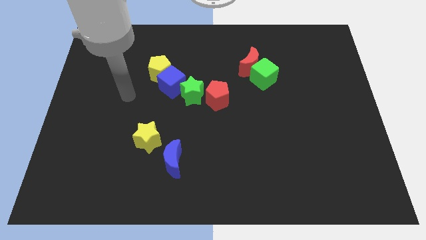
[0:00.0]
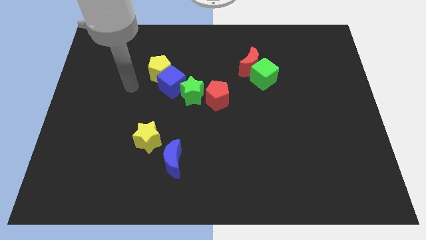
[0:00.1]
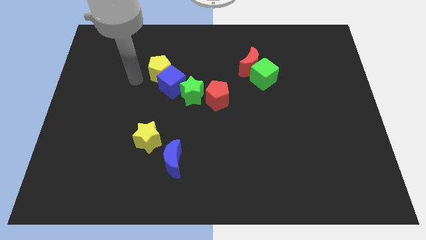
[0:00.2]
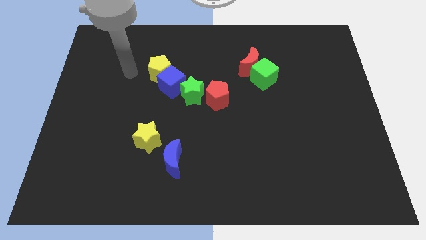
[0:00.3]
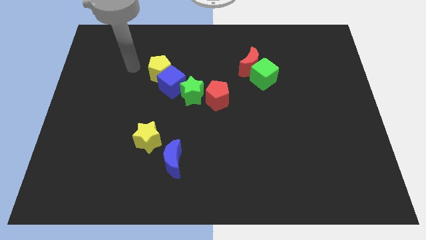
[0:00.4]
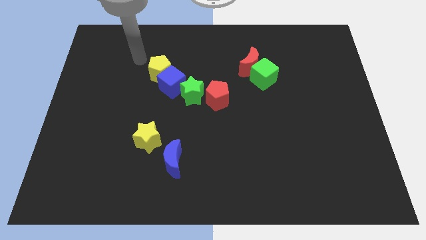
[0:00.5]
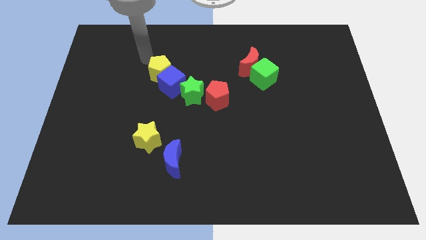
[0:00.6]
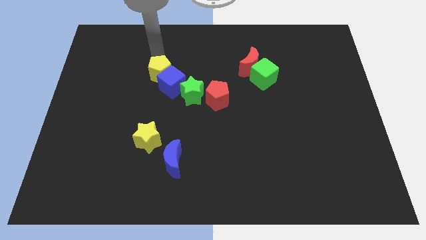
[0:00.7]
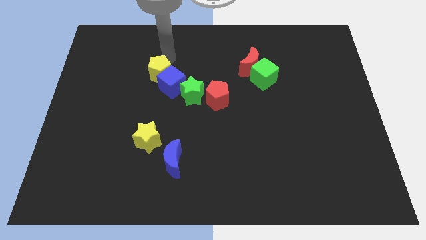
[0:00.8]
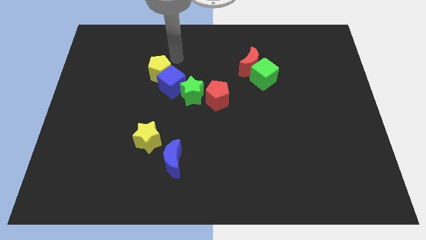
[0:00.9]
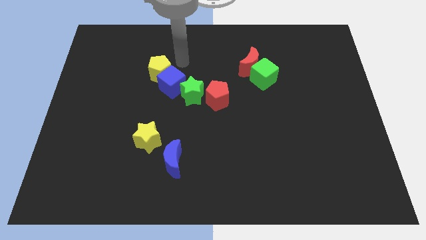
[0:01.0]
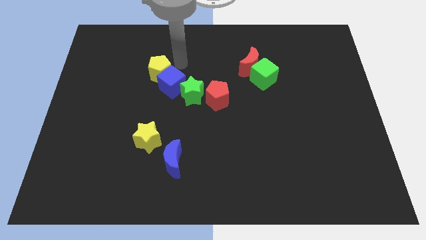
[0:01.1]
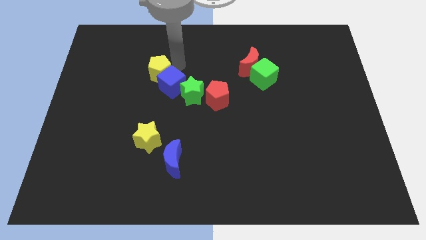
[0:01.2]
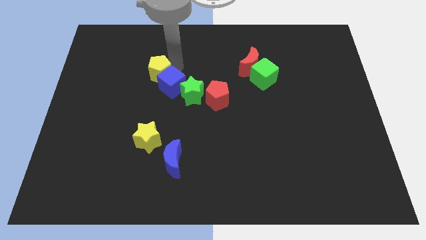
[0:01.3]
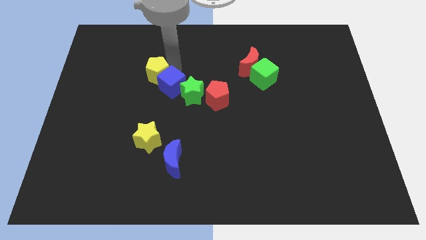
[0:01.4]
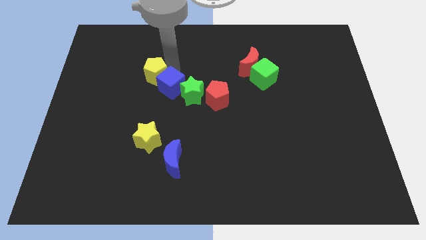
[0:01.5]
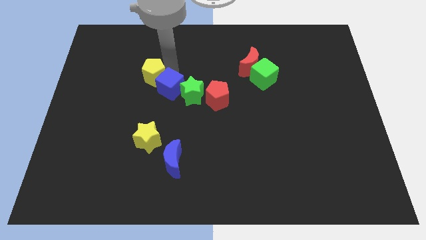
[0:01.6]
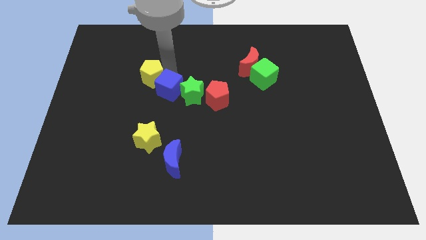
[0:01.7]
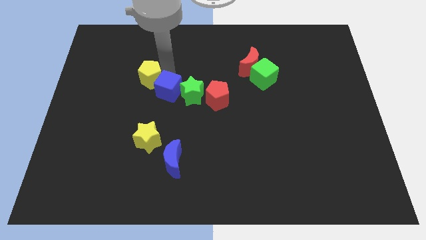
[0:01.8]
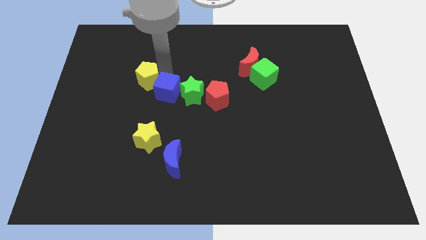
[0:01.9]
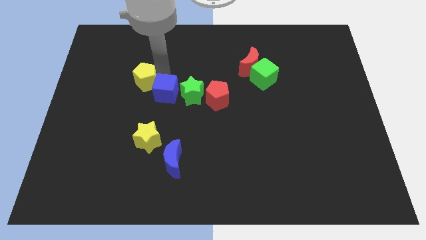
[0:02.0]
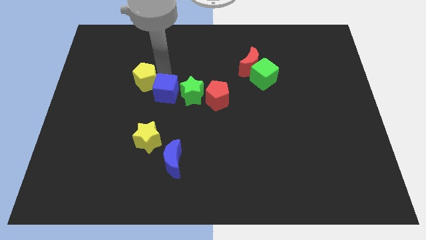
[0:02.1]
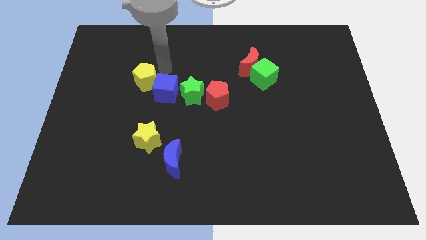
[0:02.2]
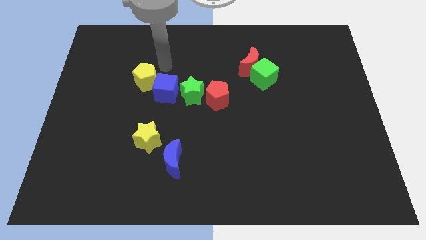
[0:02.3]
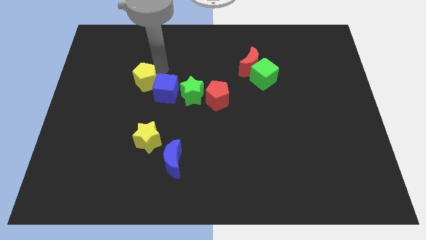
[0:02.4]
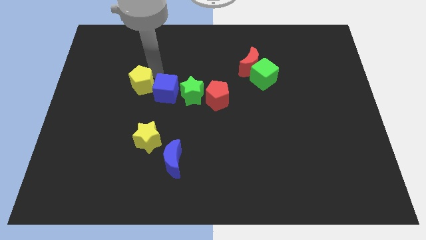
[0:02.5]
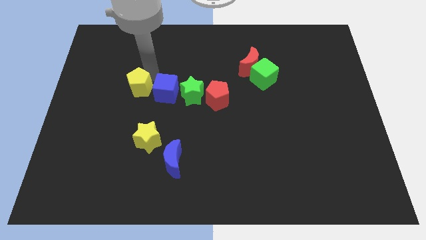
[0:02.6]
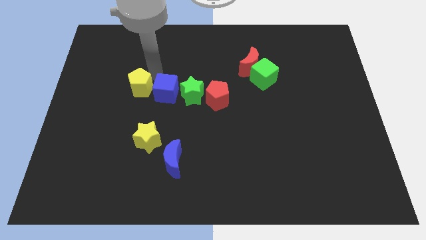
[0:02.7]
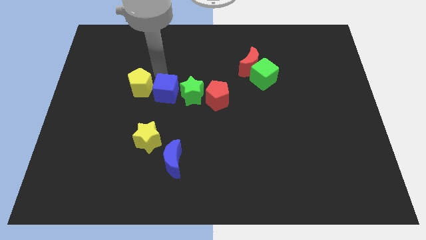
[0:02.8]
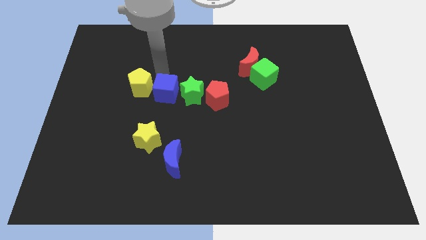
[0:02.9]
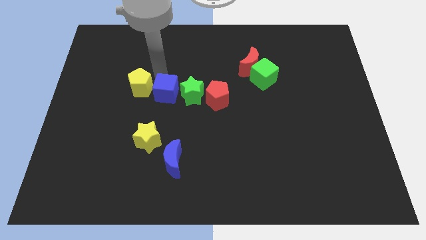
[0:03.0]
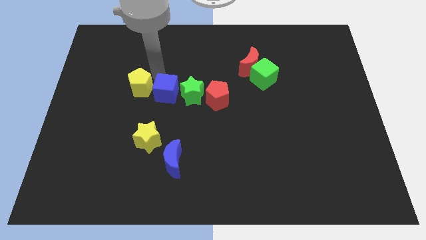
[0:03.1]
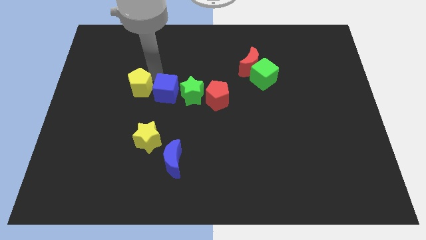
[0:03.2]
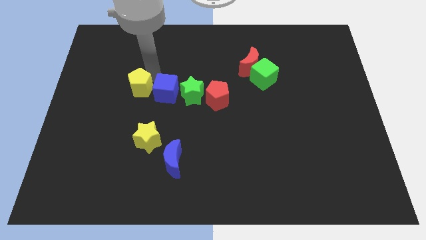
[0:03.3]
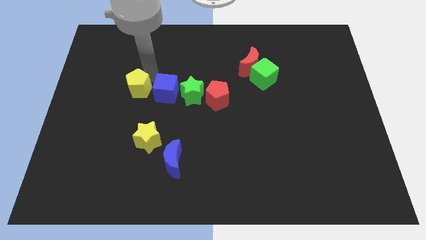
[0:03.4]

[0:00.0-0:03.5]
slightly slide the yellow pentagon down and then left

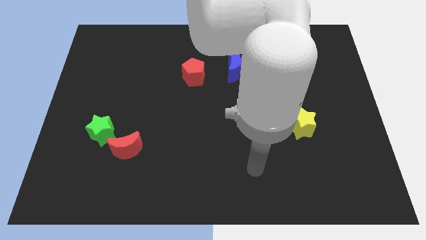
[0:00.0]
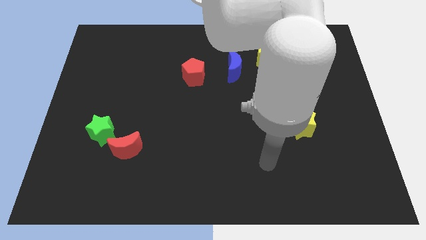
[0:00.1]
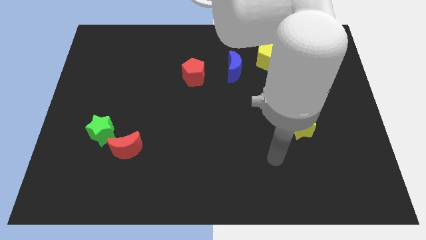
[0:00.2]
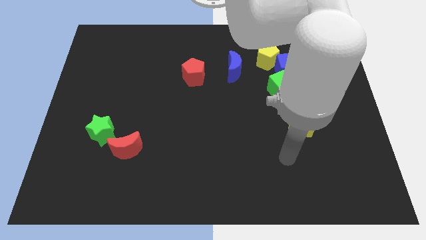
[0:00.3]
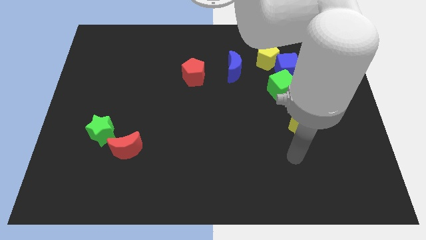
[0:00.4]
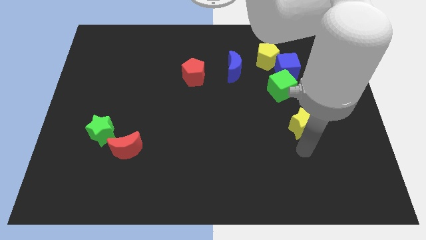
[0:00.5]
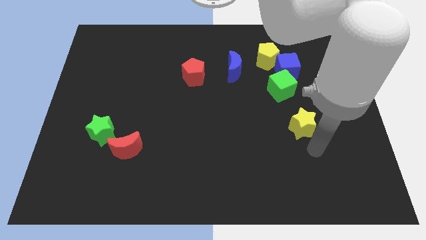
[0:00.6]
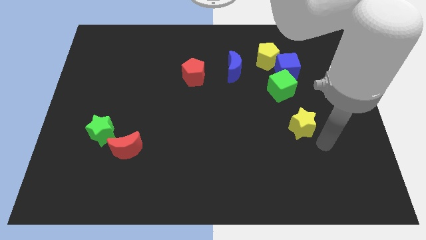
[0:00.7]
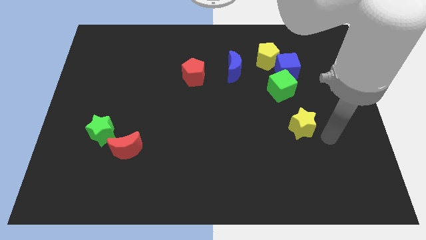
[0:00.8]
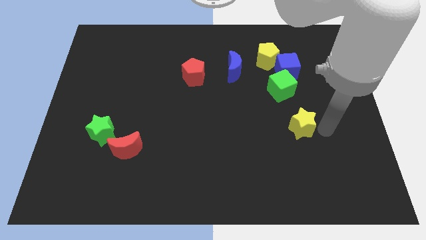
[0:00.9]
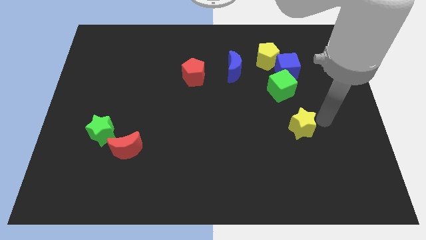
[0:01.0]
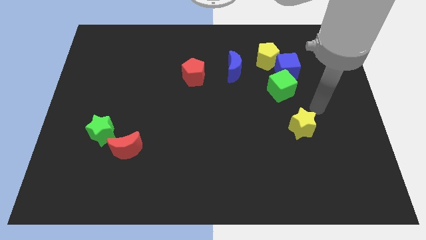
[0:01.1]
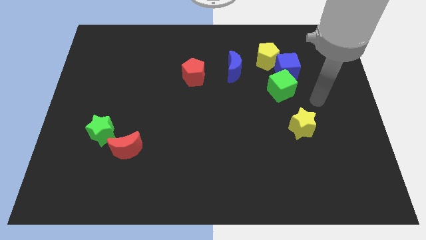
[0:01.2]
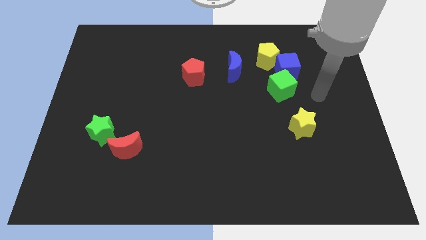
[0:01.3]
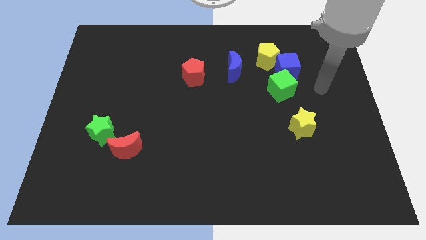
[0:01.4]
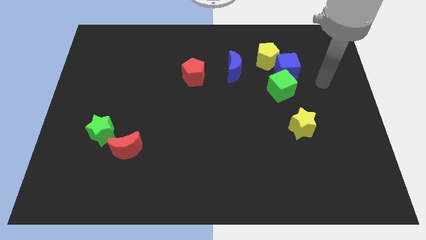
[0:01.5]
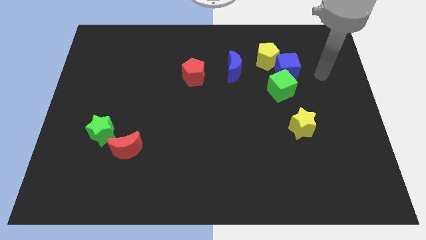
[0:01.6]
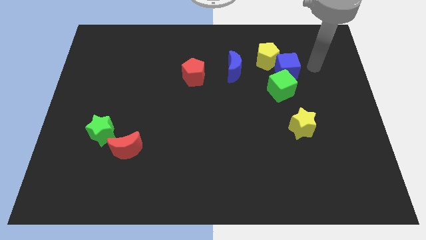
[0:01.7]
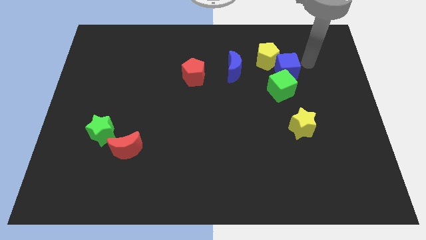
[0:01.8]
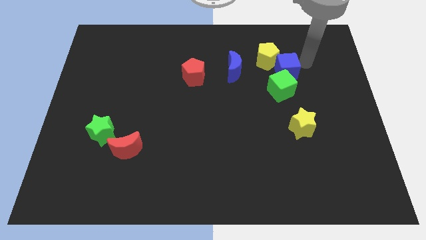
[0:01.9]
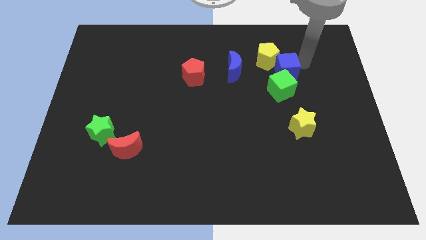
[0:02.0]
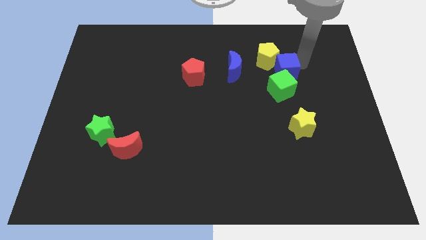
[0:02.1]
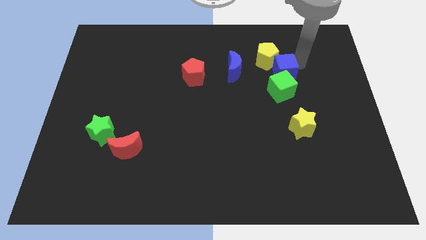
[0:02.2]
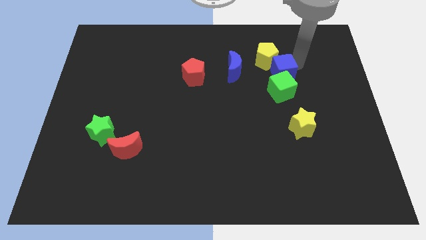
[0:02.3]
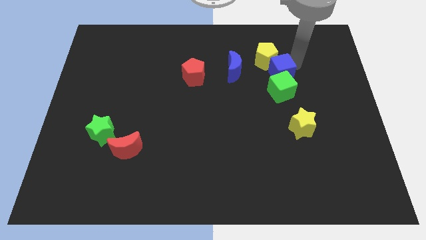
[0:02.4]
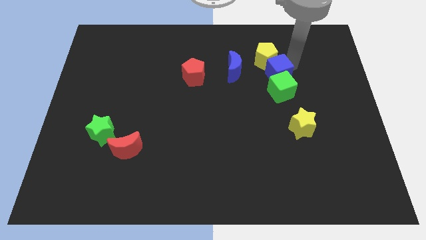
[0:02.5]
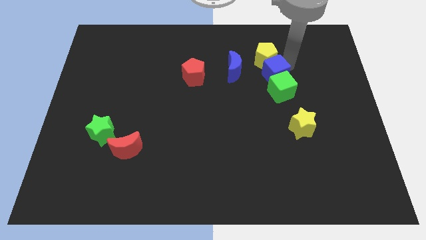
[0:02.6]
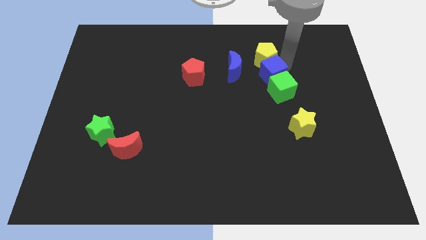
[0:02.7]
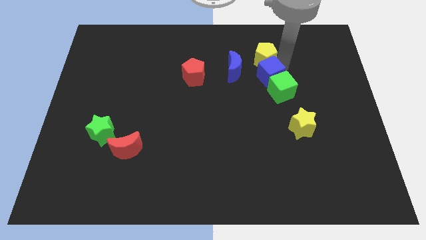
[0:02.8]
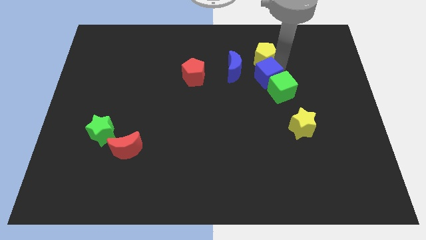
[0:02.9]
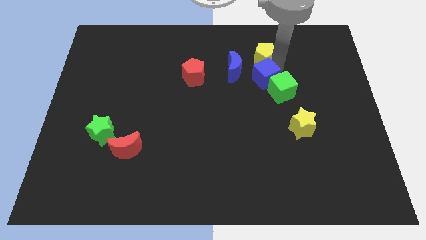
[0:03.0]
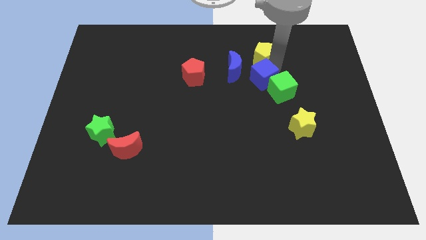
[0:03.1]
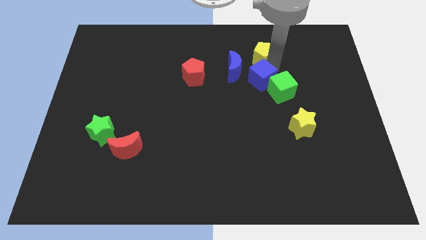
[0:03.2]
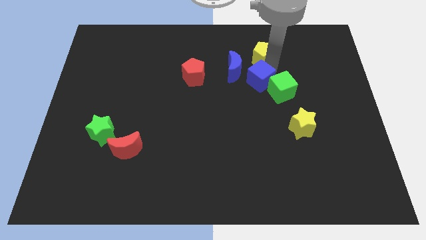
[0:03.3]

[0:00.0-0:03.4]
push the blue cube a little bit down and to the left diagonally

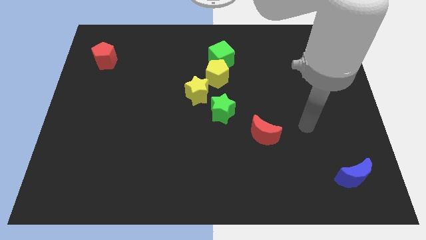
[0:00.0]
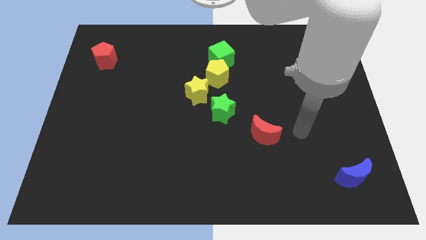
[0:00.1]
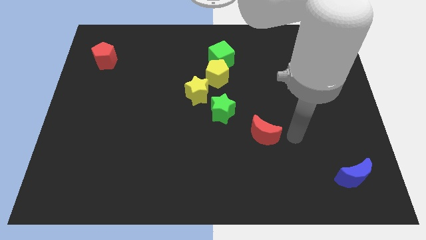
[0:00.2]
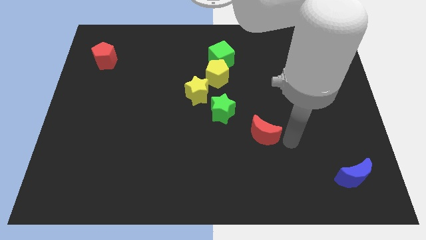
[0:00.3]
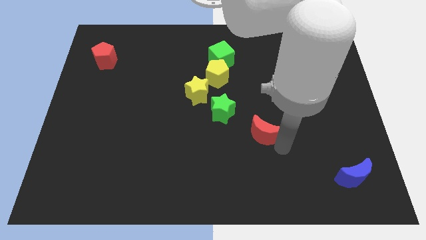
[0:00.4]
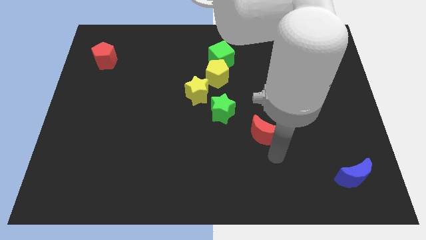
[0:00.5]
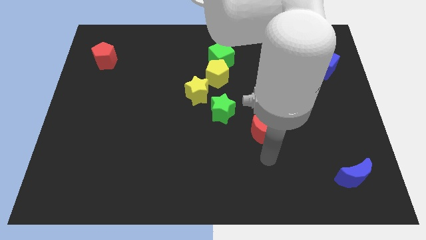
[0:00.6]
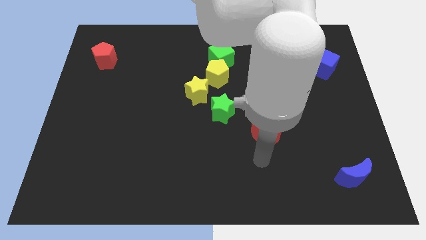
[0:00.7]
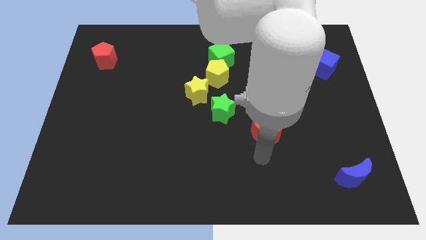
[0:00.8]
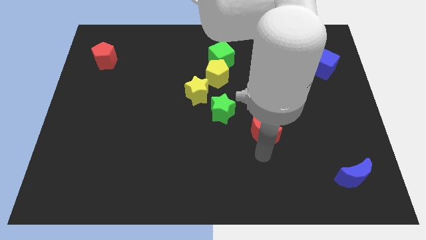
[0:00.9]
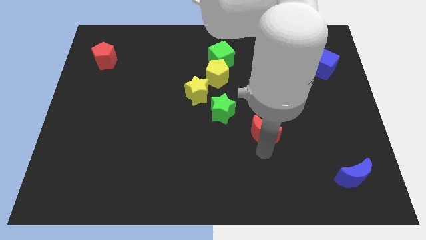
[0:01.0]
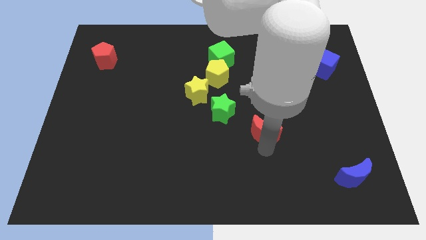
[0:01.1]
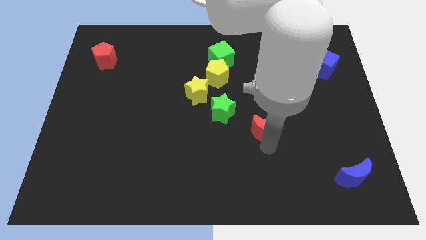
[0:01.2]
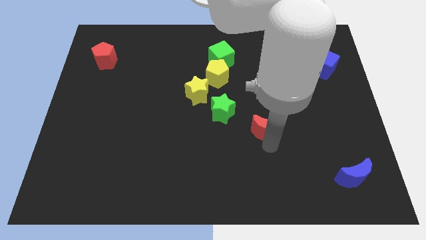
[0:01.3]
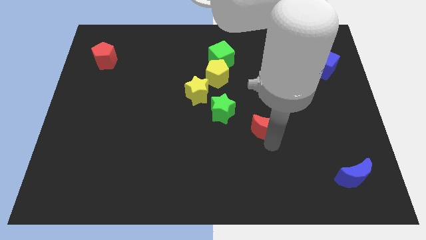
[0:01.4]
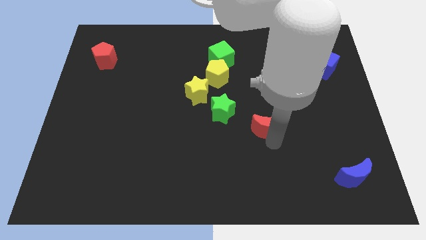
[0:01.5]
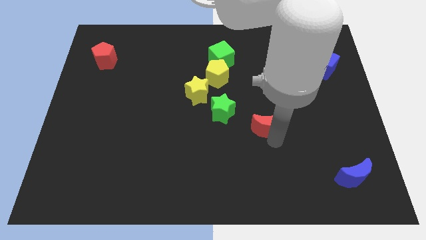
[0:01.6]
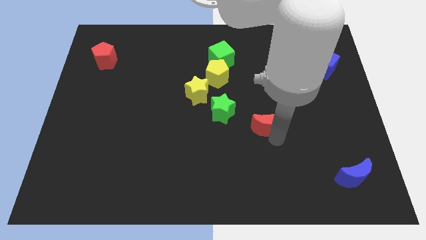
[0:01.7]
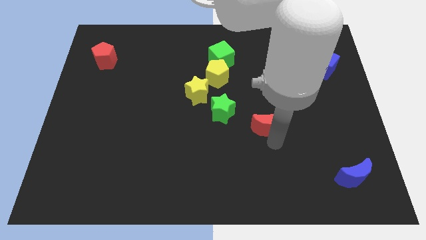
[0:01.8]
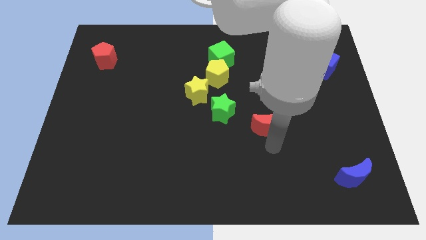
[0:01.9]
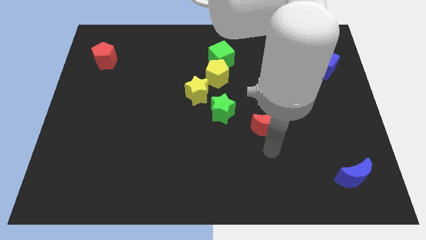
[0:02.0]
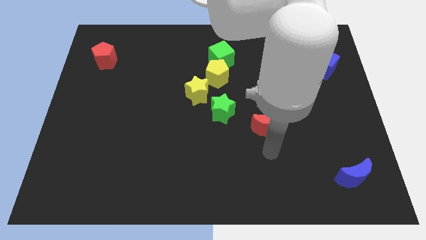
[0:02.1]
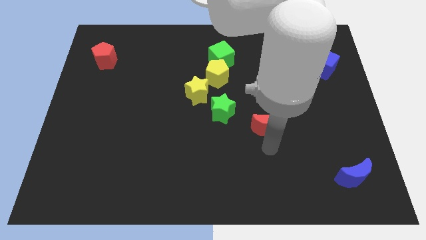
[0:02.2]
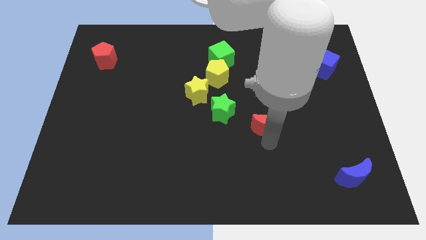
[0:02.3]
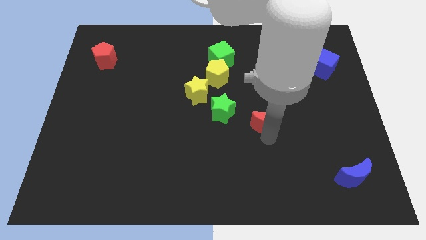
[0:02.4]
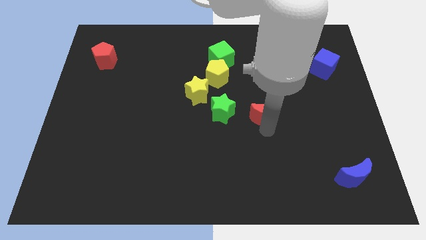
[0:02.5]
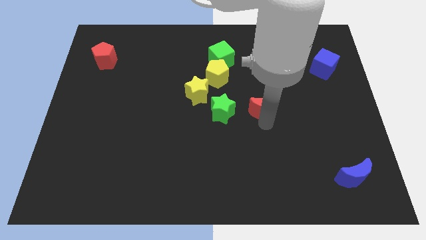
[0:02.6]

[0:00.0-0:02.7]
slightly slide the red moon up
